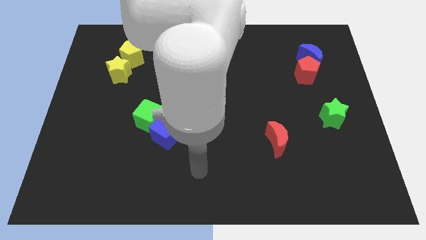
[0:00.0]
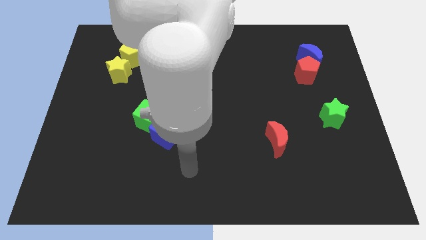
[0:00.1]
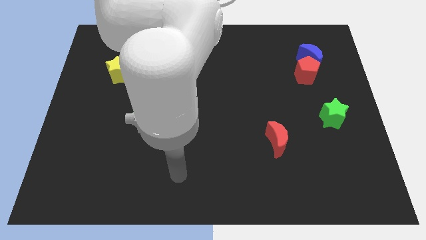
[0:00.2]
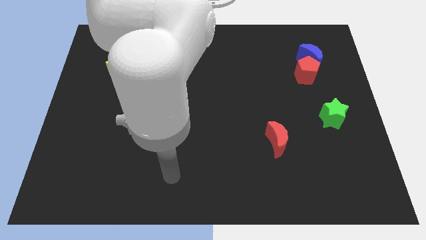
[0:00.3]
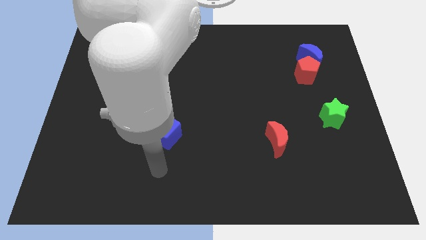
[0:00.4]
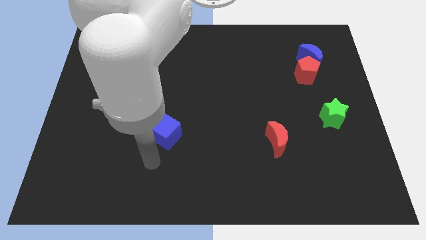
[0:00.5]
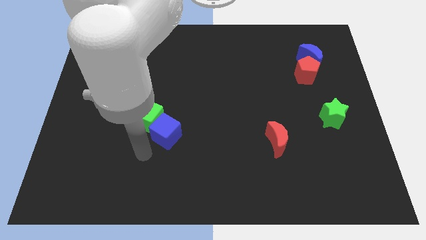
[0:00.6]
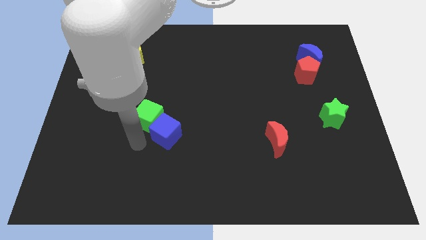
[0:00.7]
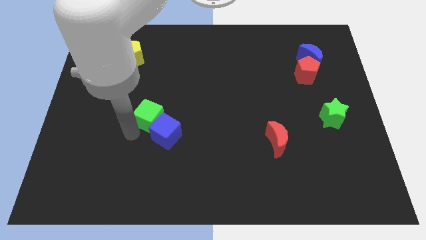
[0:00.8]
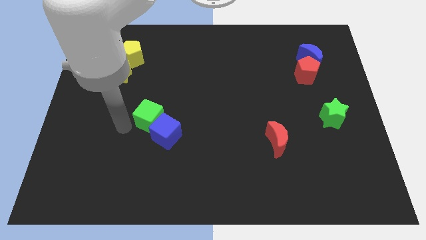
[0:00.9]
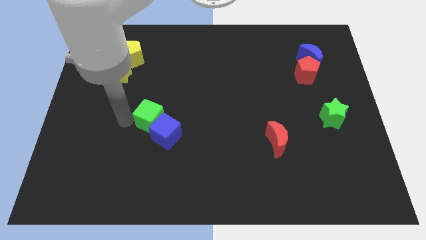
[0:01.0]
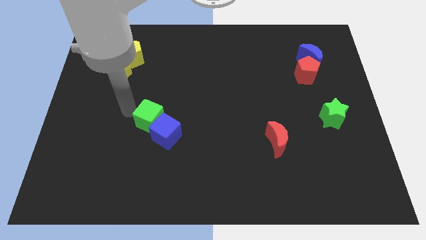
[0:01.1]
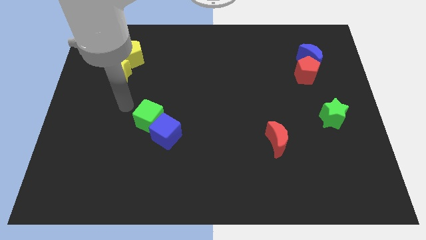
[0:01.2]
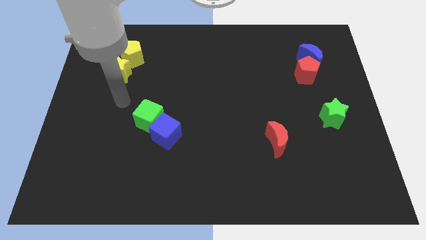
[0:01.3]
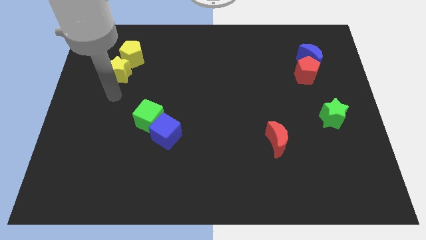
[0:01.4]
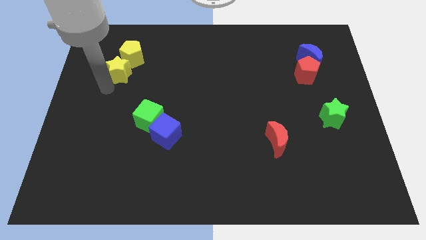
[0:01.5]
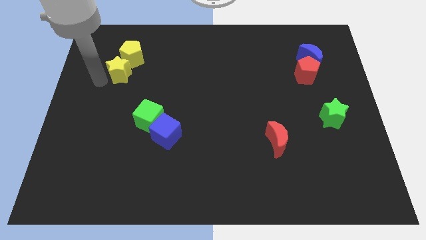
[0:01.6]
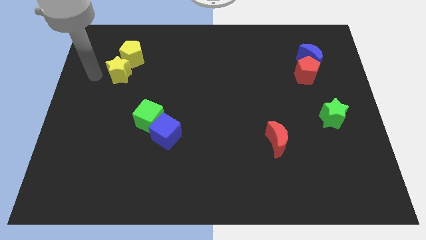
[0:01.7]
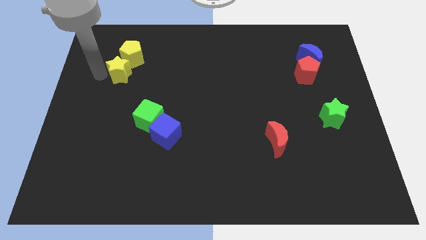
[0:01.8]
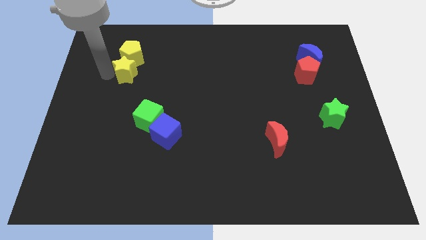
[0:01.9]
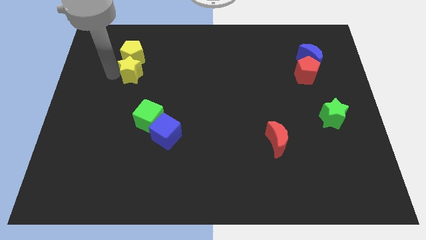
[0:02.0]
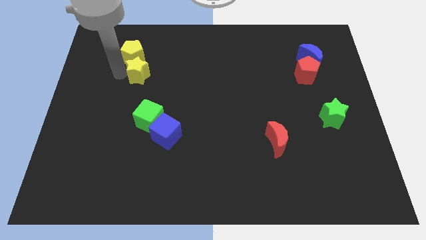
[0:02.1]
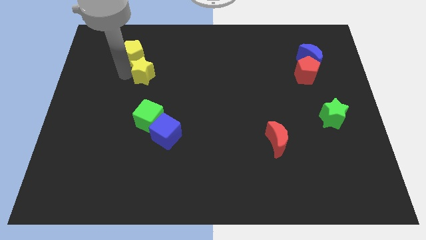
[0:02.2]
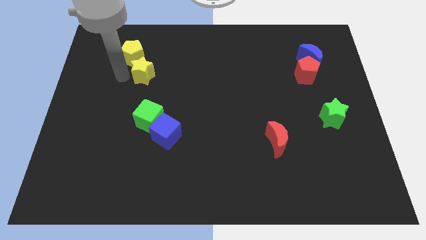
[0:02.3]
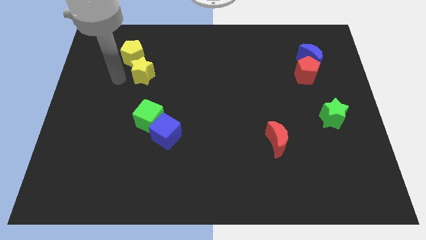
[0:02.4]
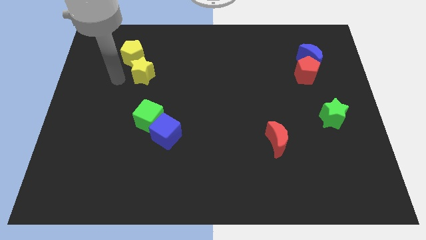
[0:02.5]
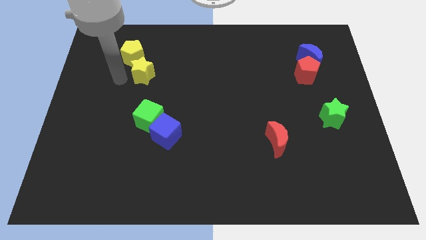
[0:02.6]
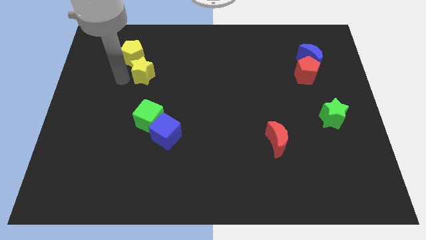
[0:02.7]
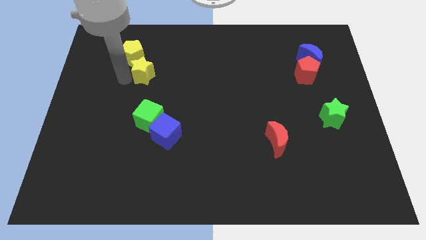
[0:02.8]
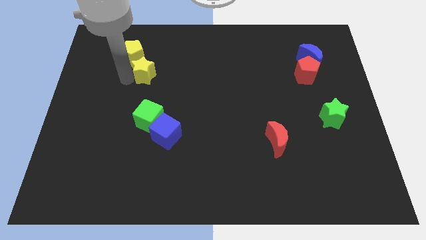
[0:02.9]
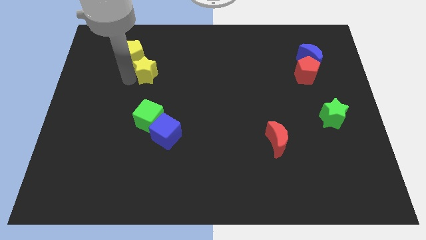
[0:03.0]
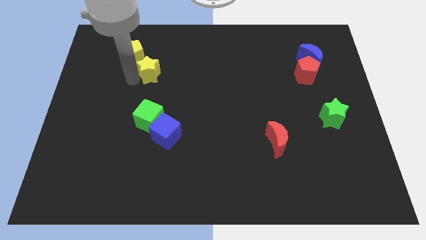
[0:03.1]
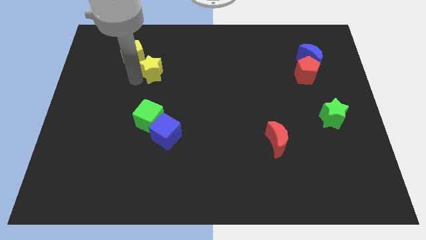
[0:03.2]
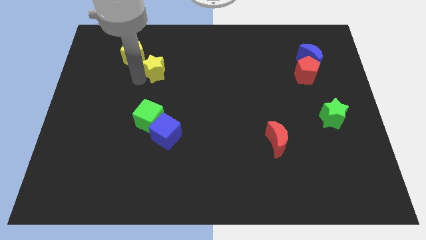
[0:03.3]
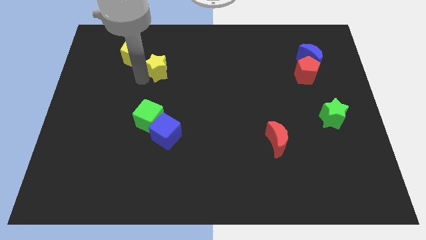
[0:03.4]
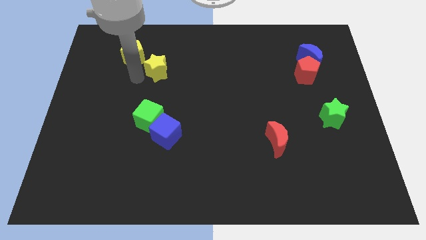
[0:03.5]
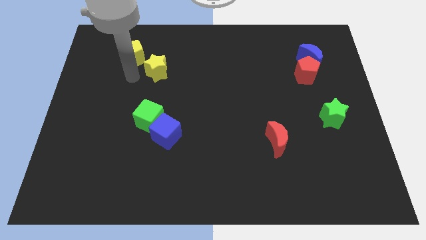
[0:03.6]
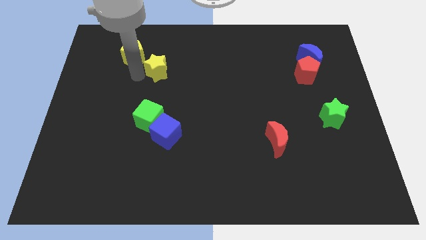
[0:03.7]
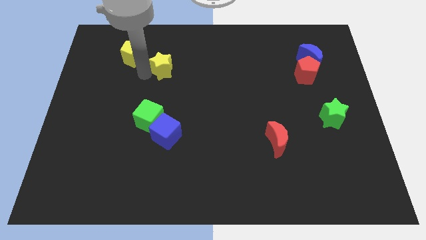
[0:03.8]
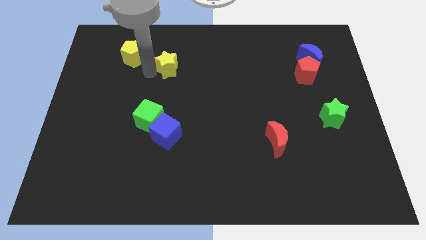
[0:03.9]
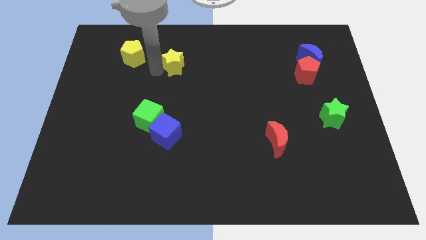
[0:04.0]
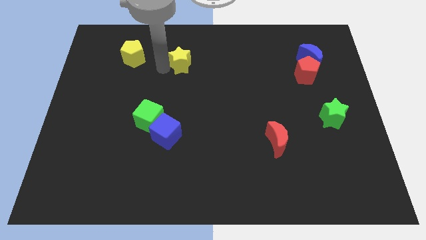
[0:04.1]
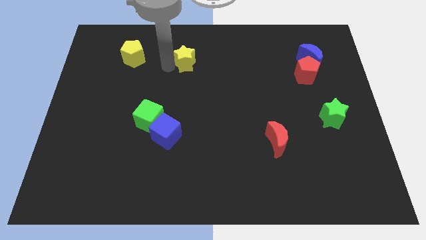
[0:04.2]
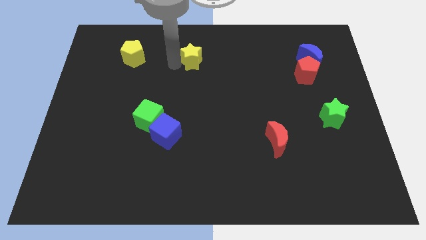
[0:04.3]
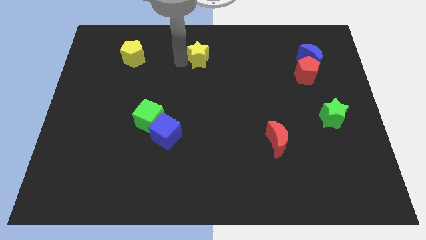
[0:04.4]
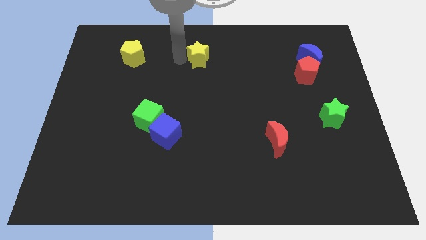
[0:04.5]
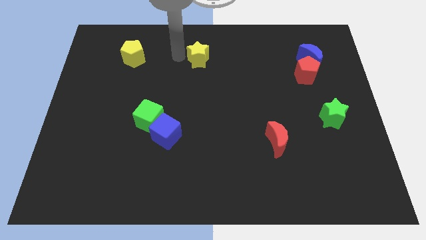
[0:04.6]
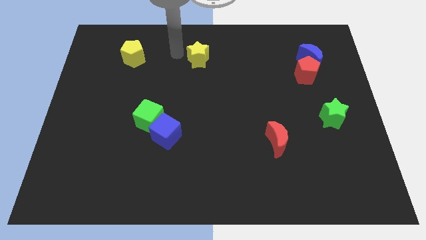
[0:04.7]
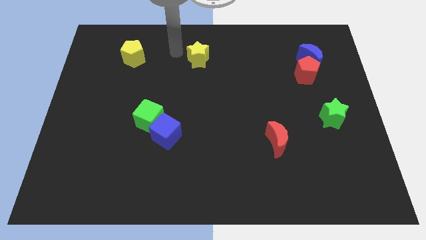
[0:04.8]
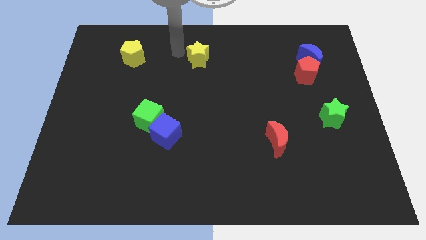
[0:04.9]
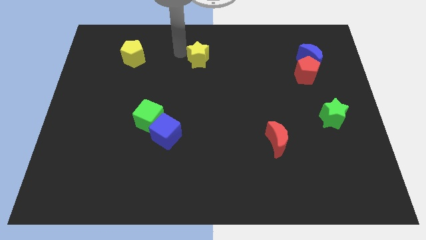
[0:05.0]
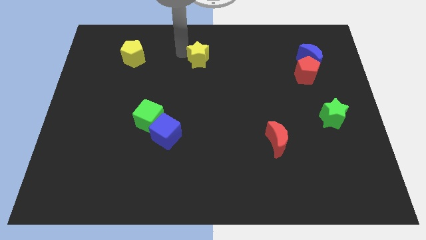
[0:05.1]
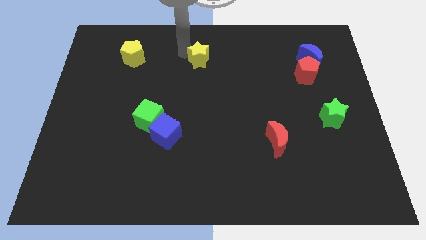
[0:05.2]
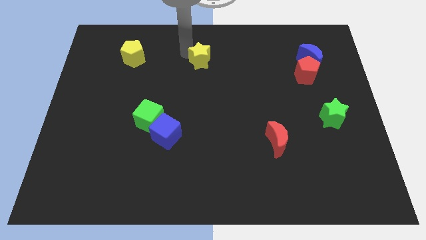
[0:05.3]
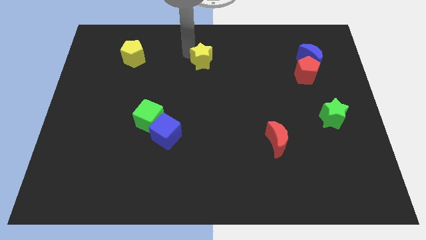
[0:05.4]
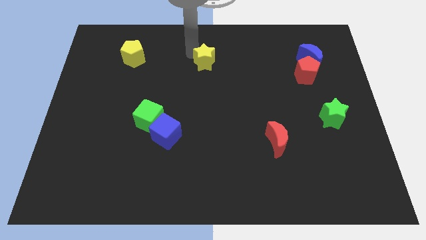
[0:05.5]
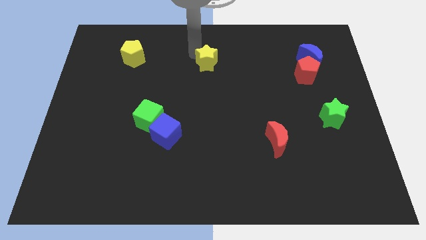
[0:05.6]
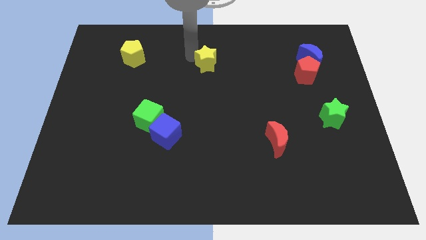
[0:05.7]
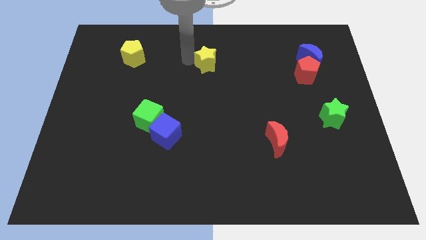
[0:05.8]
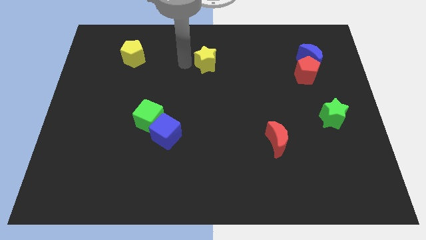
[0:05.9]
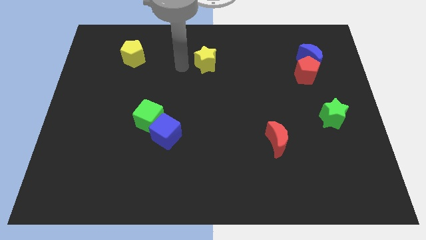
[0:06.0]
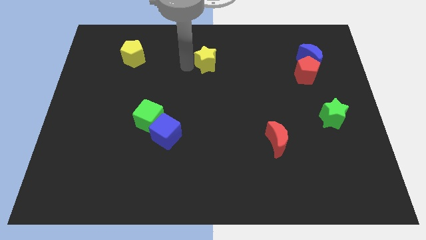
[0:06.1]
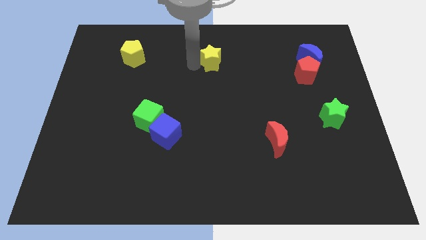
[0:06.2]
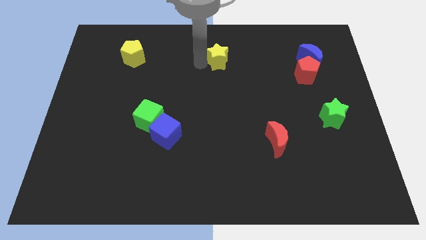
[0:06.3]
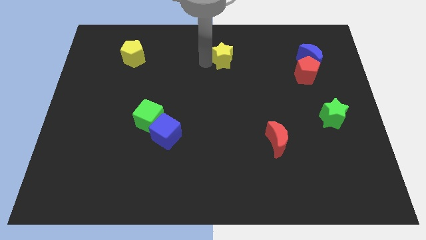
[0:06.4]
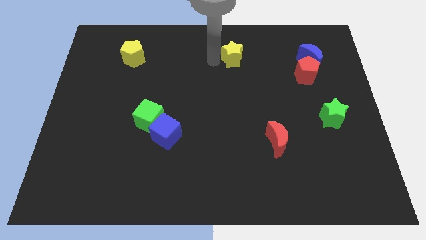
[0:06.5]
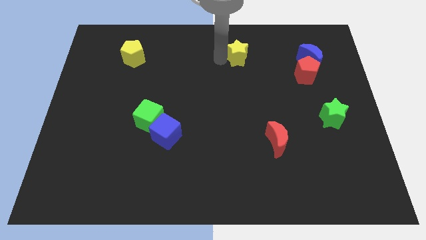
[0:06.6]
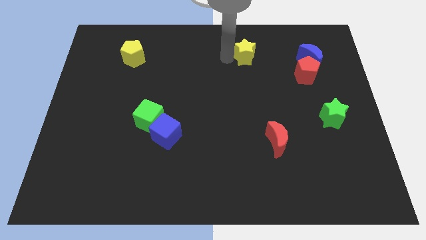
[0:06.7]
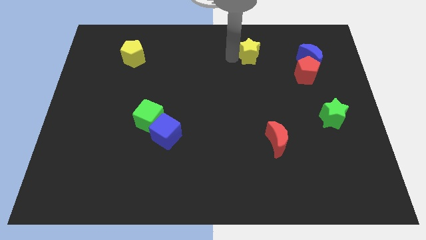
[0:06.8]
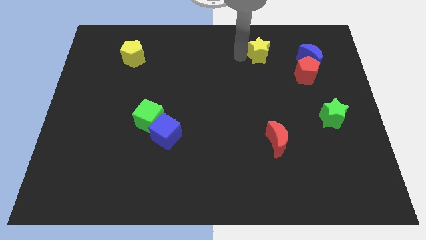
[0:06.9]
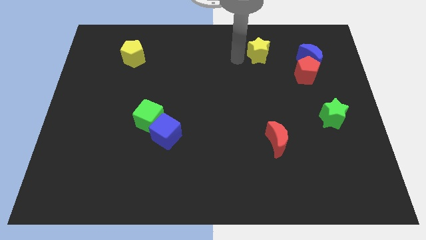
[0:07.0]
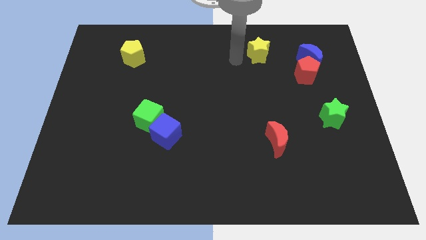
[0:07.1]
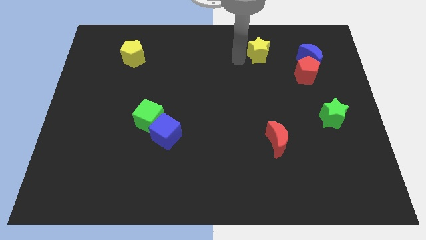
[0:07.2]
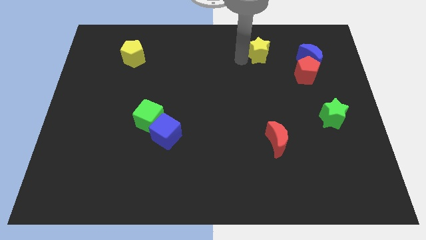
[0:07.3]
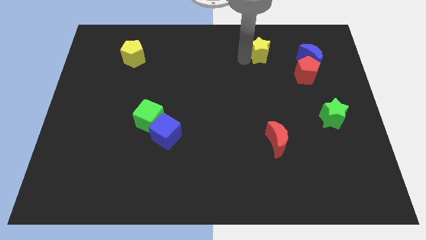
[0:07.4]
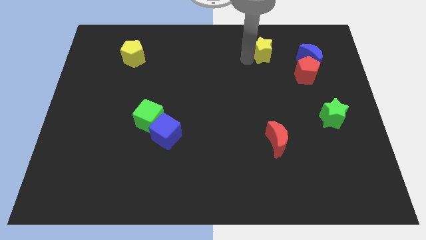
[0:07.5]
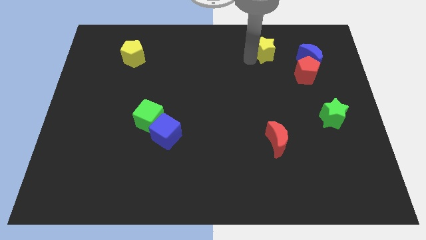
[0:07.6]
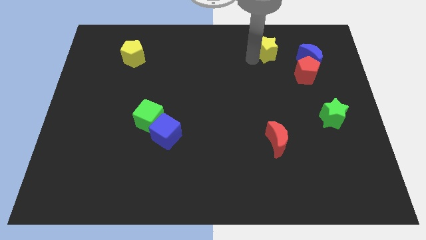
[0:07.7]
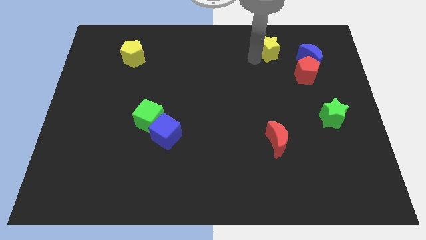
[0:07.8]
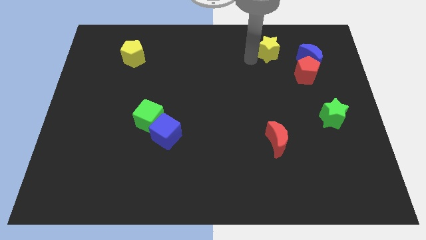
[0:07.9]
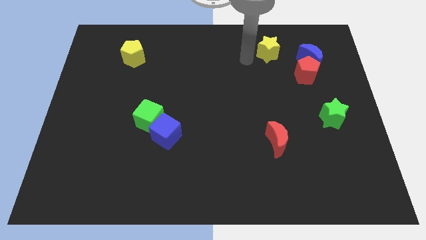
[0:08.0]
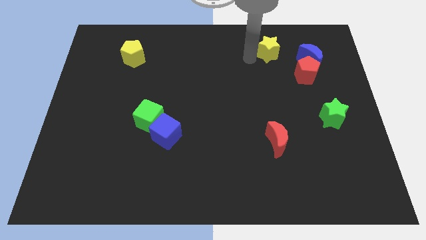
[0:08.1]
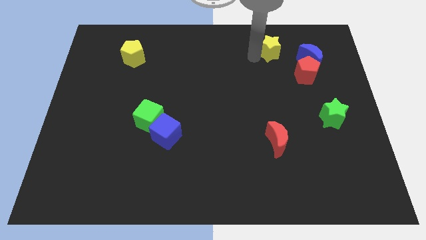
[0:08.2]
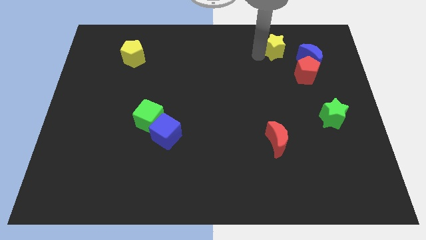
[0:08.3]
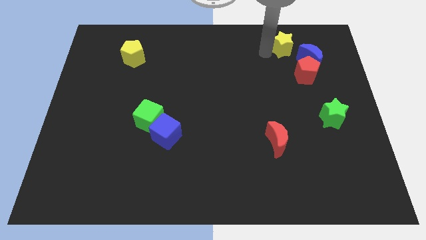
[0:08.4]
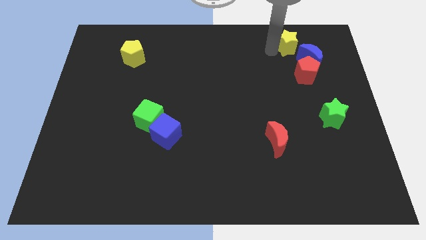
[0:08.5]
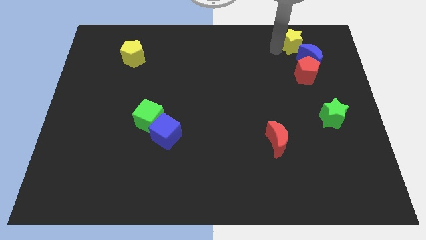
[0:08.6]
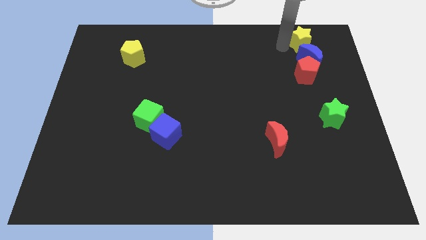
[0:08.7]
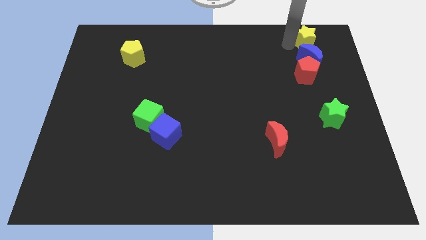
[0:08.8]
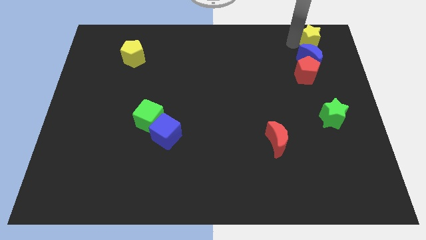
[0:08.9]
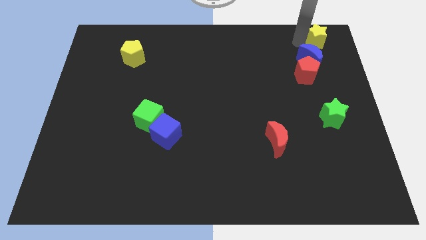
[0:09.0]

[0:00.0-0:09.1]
push the yellow star to the top right
